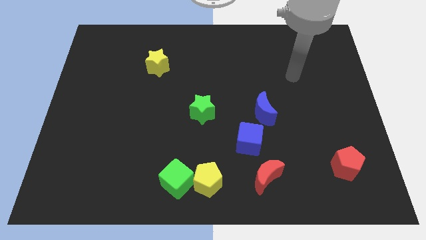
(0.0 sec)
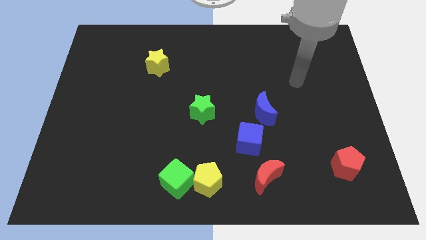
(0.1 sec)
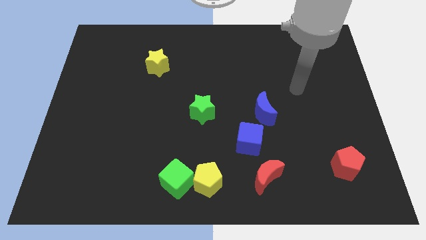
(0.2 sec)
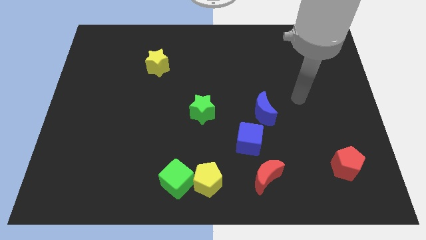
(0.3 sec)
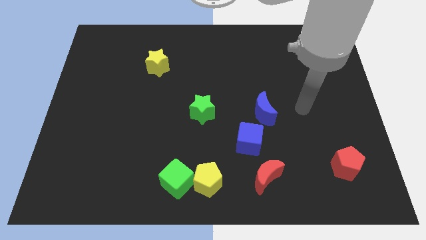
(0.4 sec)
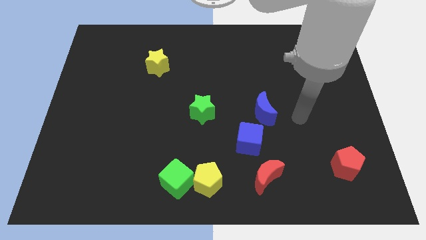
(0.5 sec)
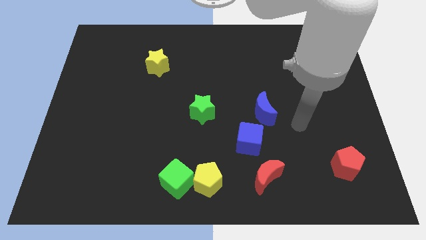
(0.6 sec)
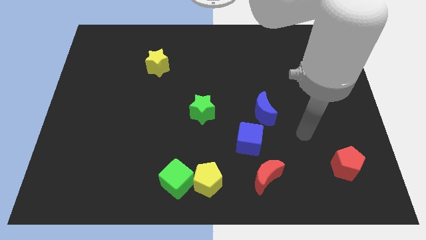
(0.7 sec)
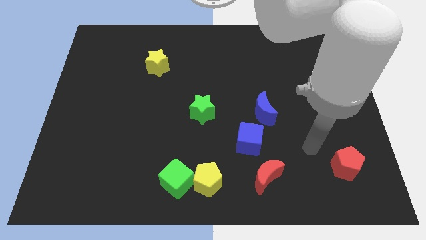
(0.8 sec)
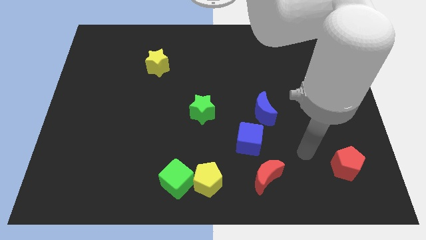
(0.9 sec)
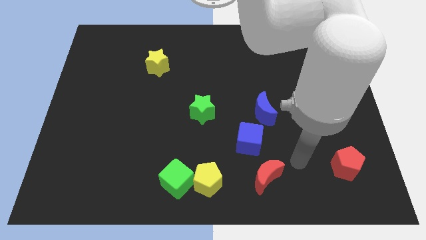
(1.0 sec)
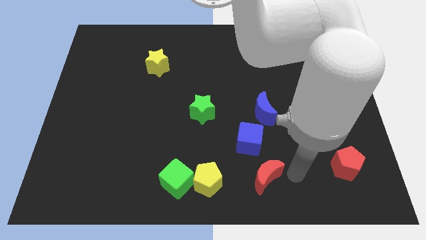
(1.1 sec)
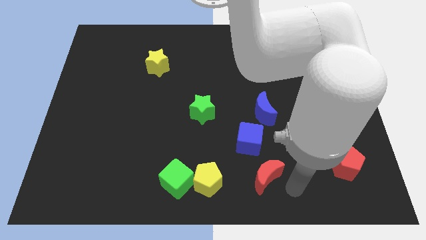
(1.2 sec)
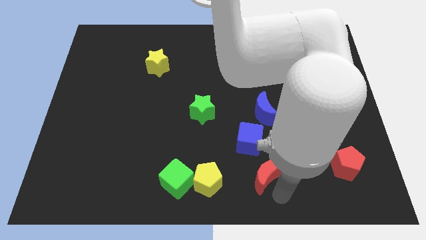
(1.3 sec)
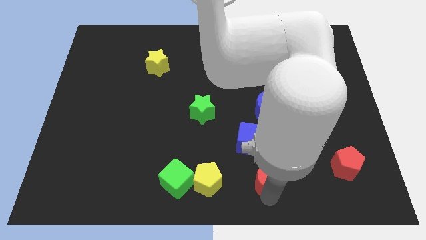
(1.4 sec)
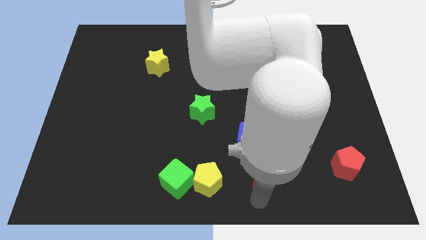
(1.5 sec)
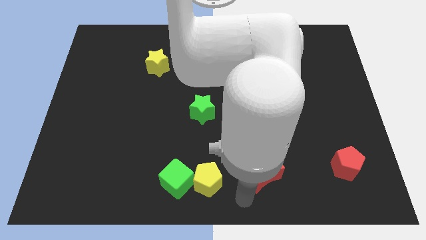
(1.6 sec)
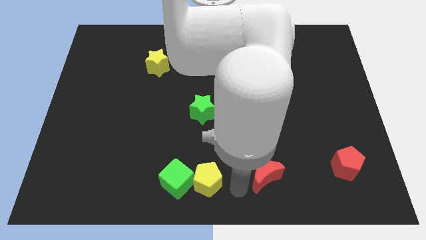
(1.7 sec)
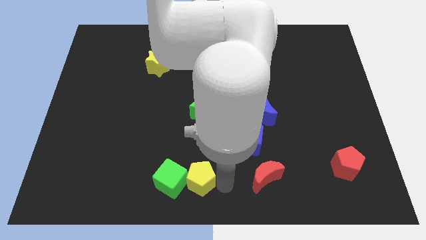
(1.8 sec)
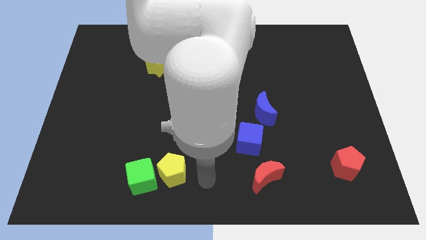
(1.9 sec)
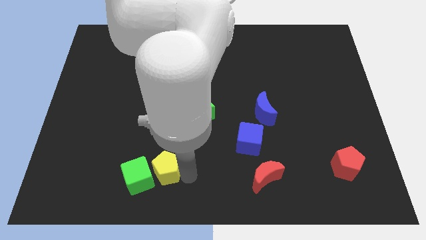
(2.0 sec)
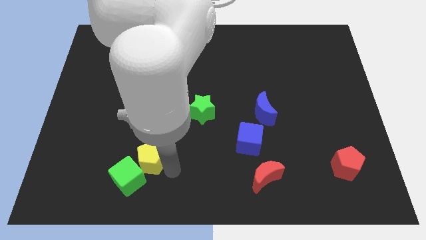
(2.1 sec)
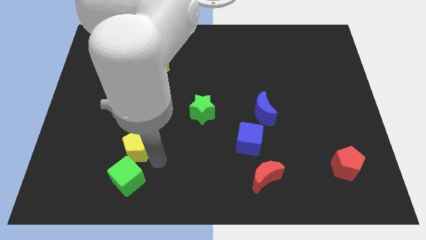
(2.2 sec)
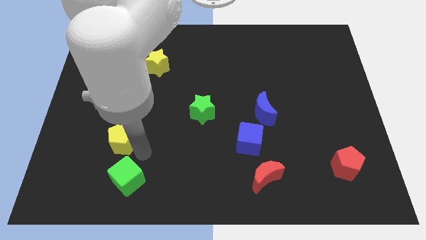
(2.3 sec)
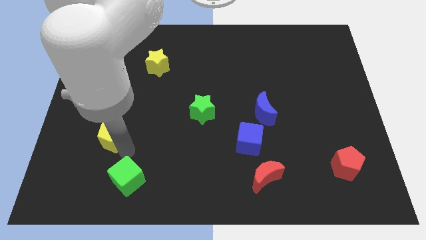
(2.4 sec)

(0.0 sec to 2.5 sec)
separate the green cube from the yellow pentagon

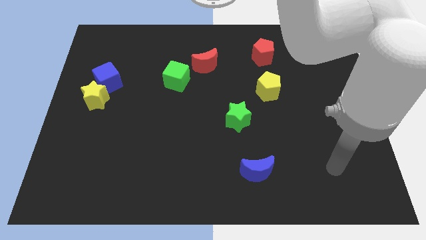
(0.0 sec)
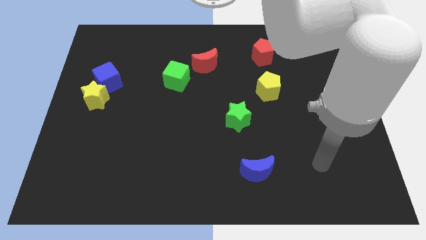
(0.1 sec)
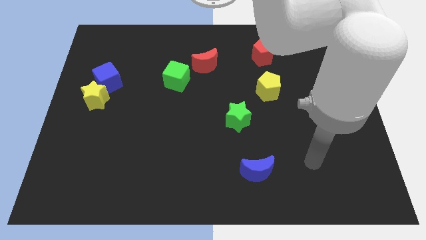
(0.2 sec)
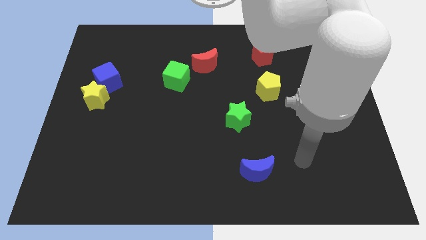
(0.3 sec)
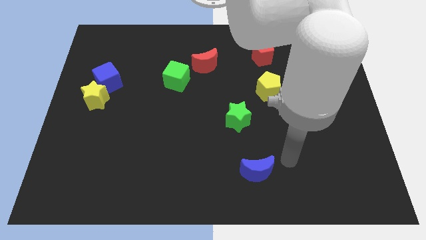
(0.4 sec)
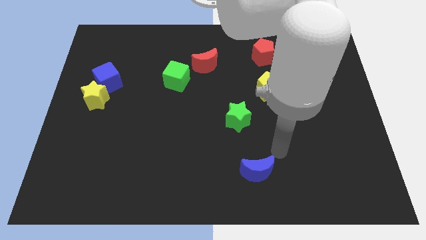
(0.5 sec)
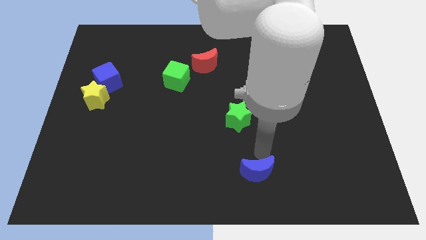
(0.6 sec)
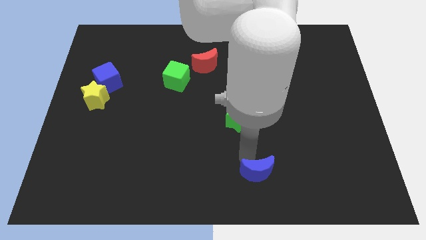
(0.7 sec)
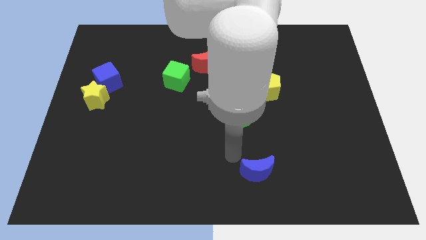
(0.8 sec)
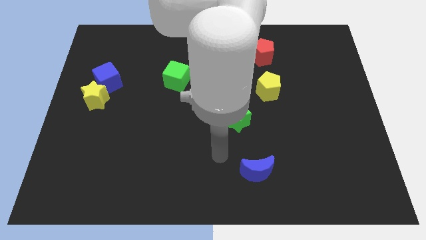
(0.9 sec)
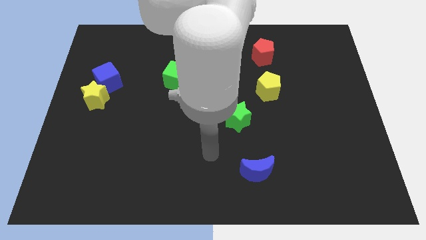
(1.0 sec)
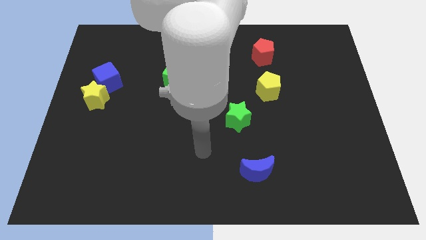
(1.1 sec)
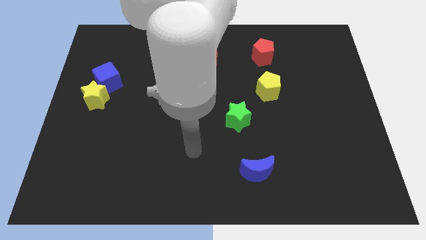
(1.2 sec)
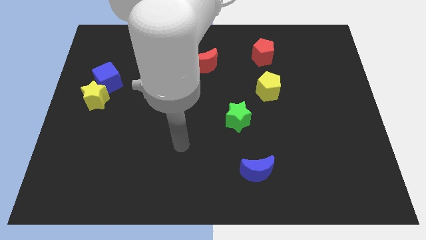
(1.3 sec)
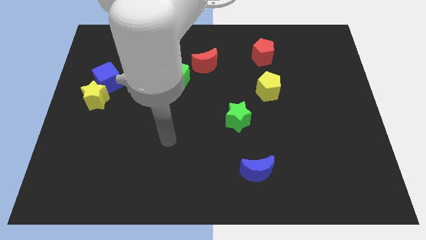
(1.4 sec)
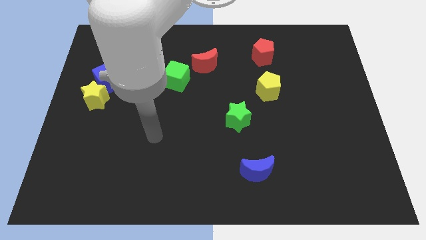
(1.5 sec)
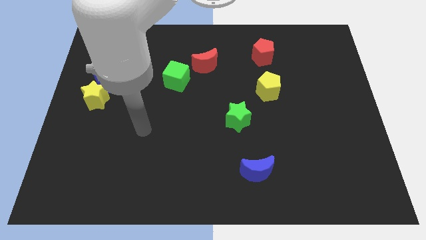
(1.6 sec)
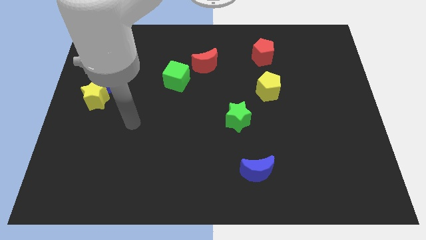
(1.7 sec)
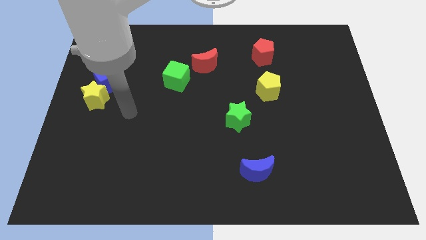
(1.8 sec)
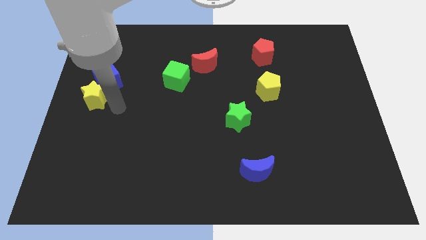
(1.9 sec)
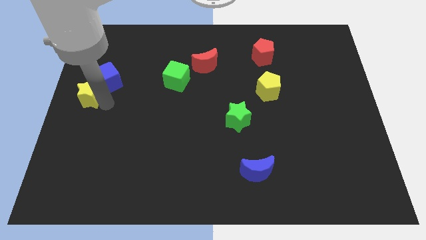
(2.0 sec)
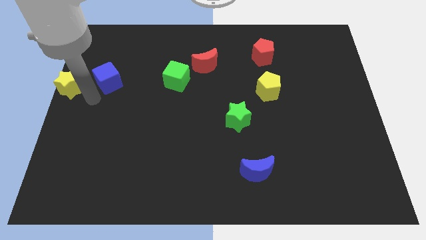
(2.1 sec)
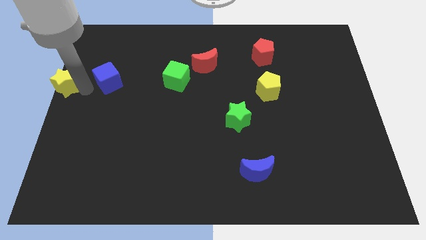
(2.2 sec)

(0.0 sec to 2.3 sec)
pull the blue cube apart from the yellow star

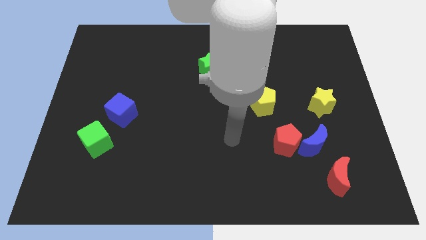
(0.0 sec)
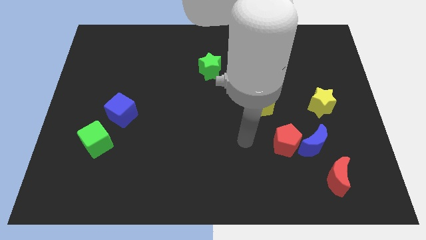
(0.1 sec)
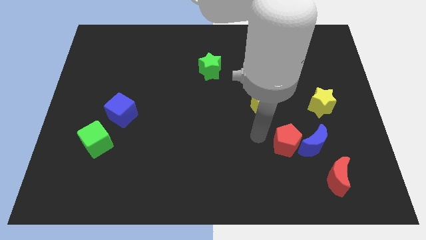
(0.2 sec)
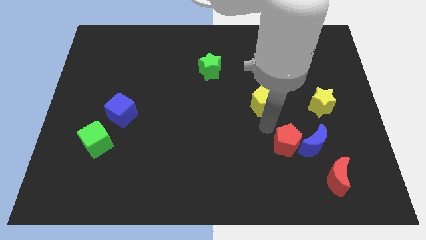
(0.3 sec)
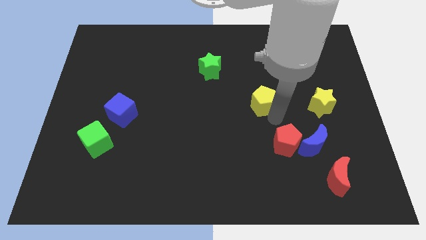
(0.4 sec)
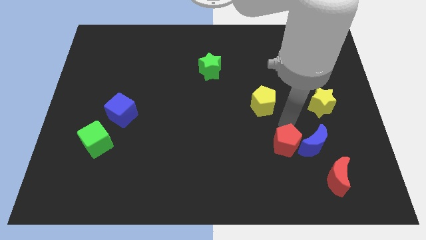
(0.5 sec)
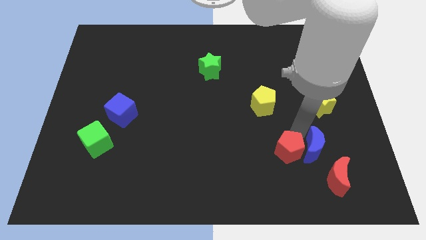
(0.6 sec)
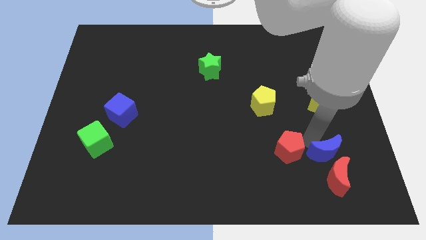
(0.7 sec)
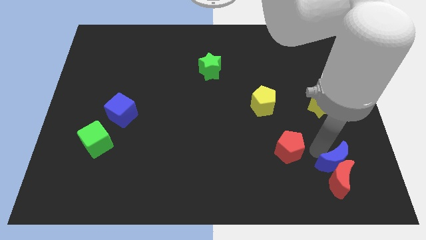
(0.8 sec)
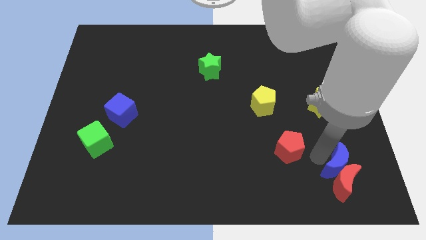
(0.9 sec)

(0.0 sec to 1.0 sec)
move the red pentagon away from the blue moon

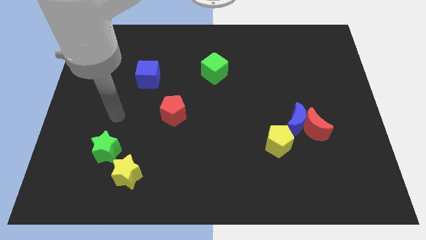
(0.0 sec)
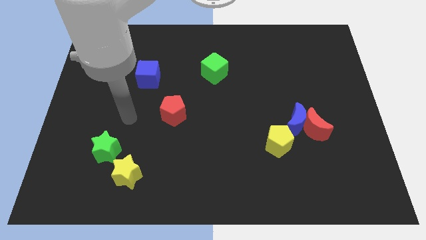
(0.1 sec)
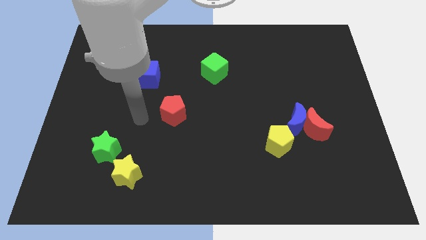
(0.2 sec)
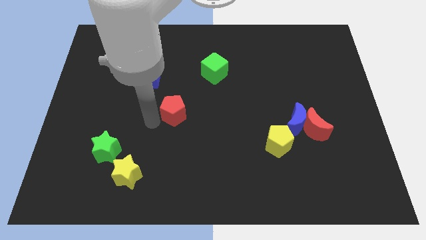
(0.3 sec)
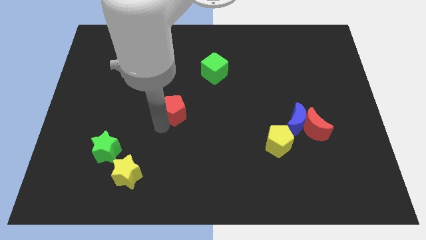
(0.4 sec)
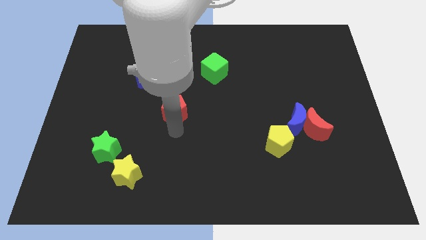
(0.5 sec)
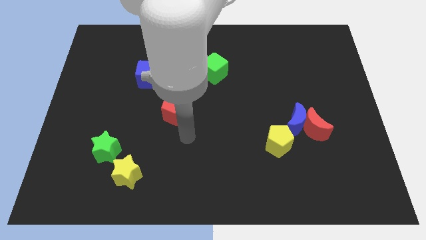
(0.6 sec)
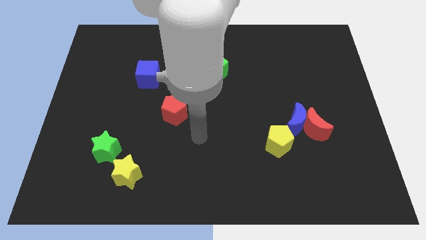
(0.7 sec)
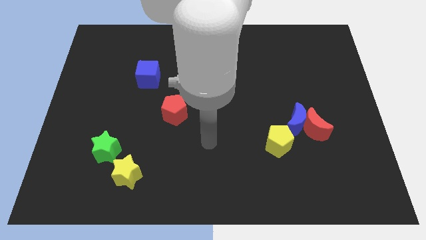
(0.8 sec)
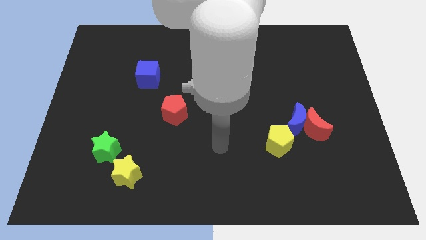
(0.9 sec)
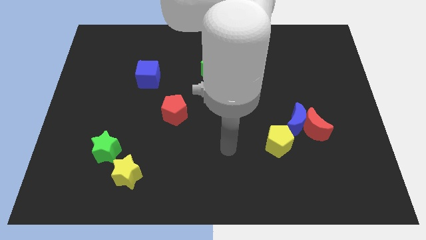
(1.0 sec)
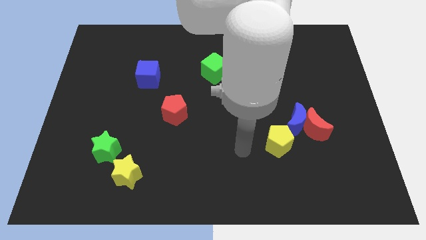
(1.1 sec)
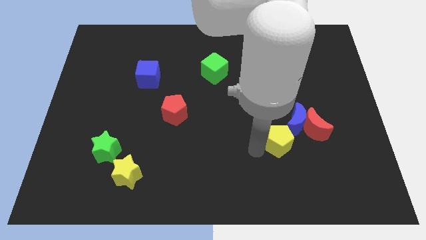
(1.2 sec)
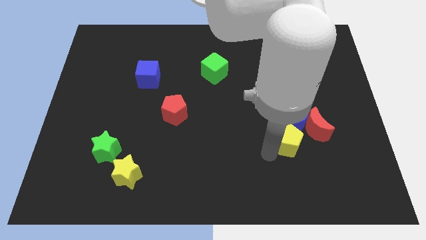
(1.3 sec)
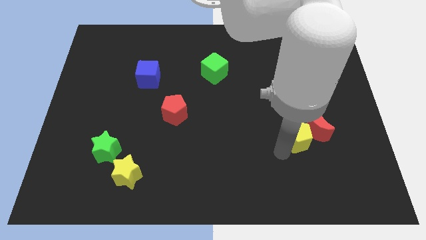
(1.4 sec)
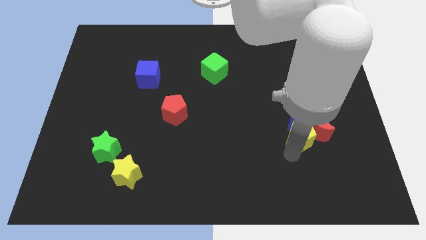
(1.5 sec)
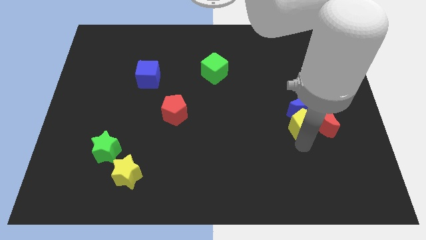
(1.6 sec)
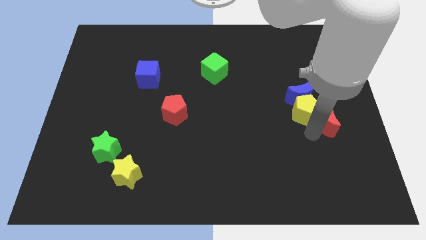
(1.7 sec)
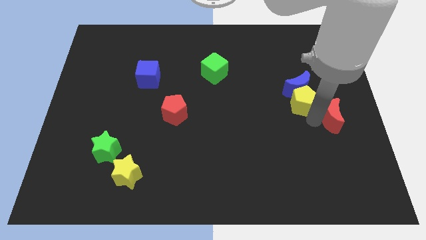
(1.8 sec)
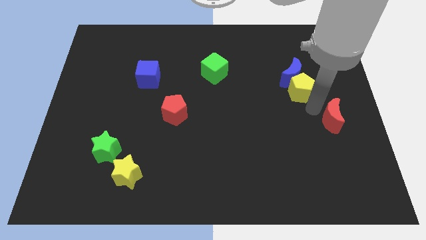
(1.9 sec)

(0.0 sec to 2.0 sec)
separate the blue moon from the red moon and yellow pentagon

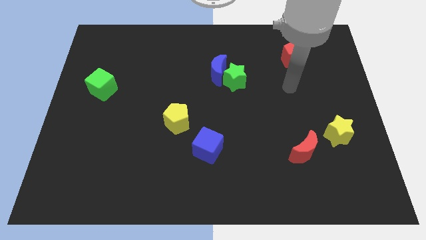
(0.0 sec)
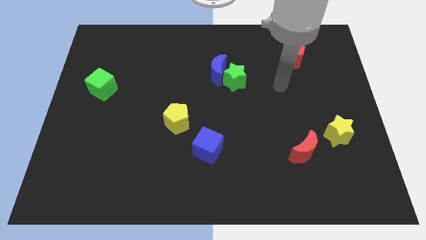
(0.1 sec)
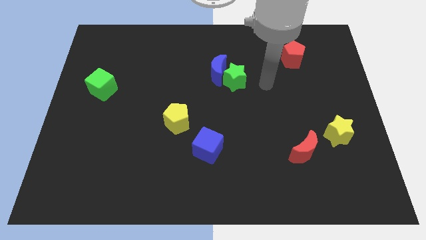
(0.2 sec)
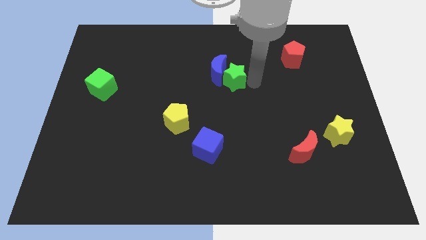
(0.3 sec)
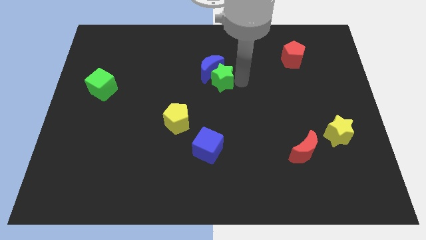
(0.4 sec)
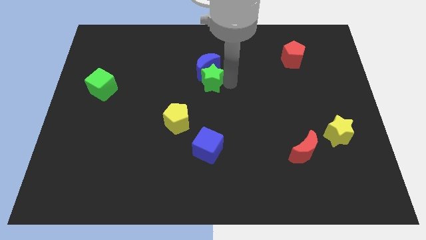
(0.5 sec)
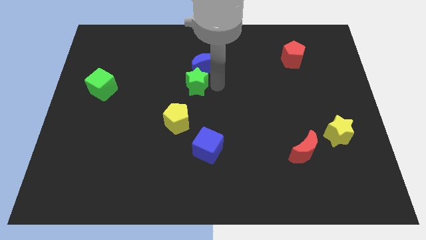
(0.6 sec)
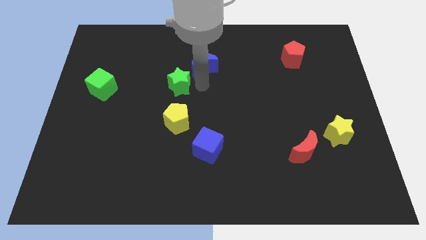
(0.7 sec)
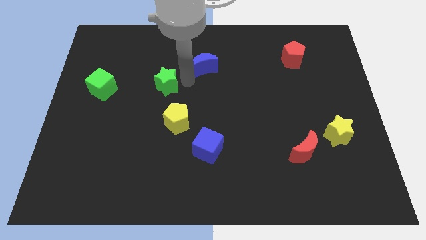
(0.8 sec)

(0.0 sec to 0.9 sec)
pull the blue moon apart from the green star

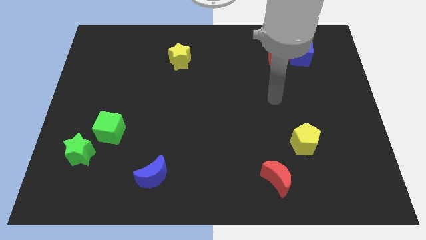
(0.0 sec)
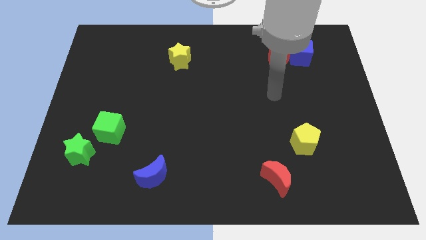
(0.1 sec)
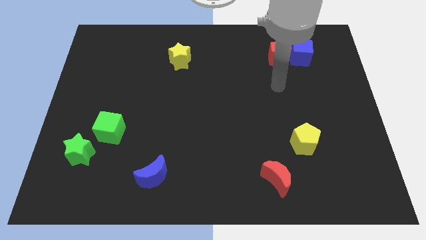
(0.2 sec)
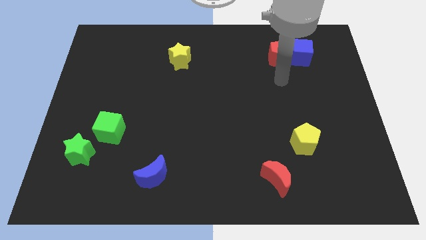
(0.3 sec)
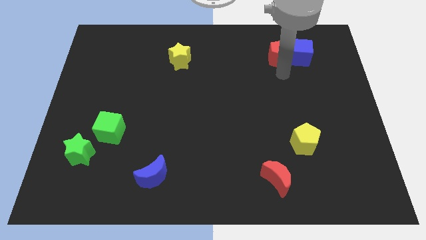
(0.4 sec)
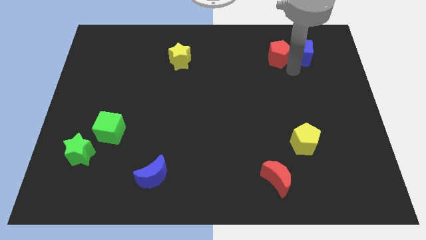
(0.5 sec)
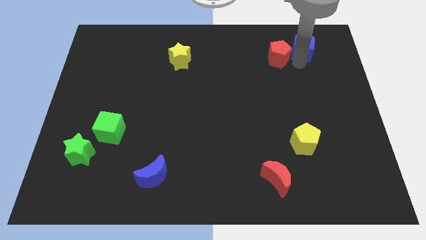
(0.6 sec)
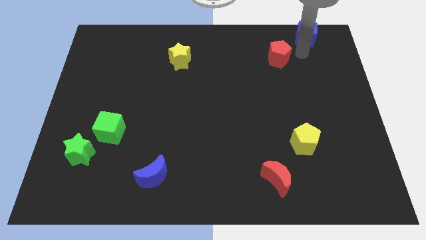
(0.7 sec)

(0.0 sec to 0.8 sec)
pull the red pentagon apart from the blue cube
